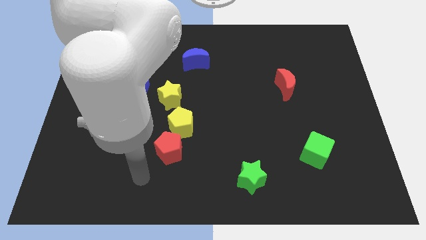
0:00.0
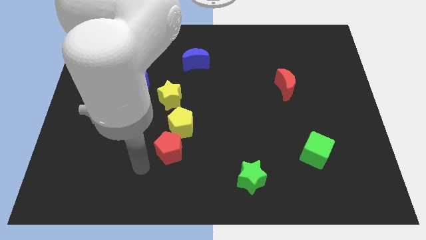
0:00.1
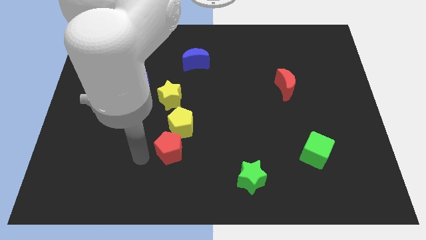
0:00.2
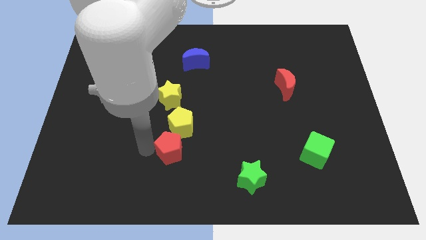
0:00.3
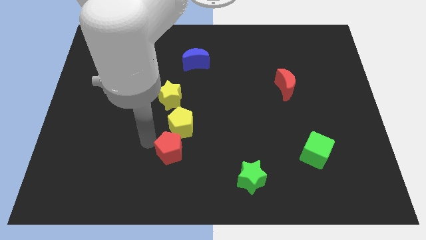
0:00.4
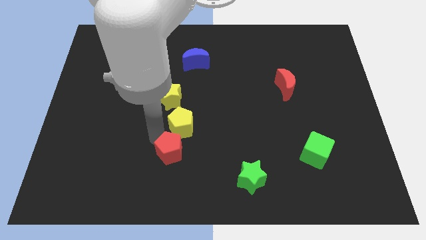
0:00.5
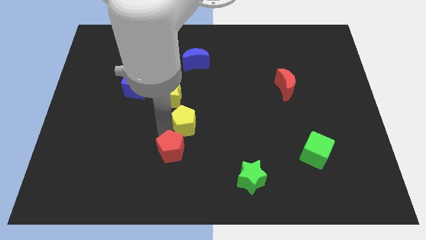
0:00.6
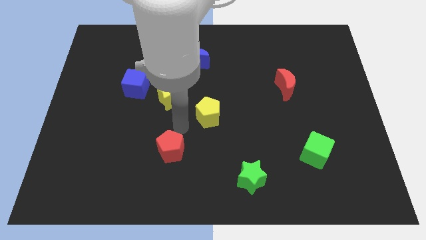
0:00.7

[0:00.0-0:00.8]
separate the red pentagon from the yellow pentagon

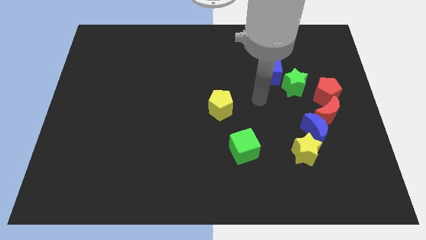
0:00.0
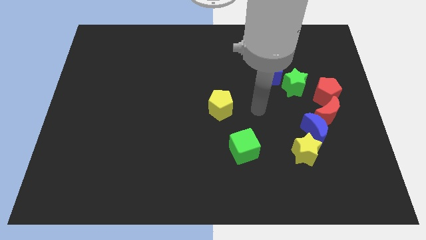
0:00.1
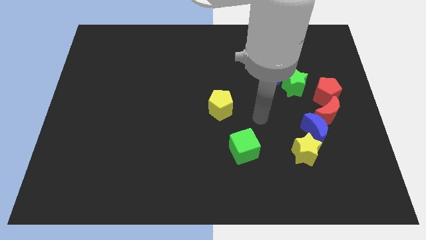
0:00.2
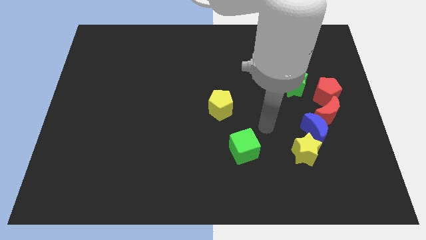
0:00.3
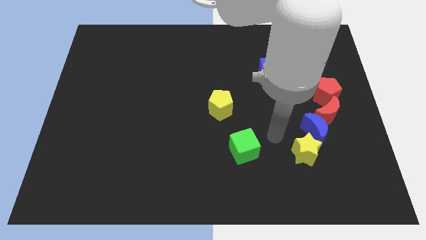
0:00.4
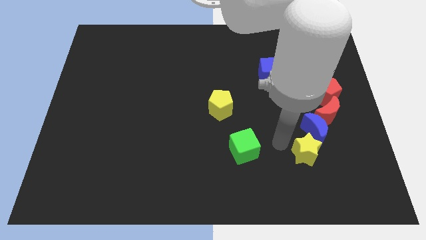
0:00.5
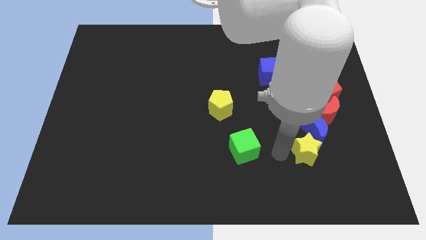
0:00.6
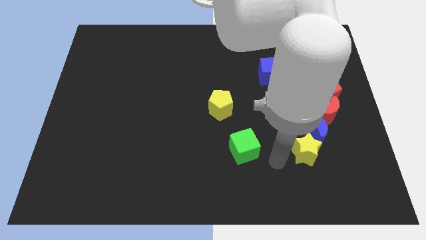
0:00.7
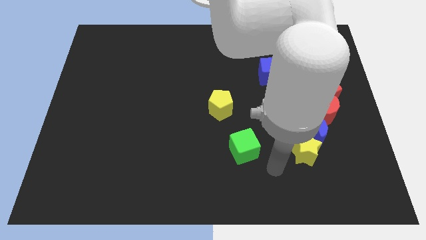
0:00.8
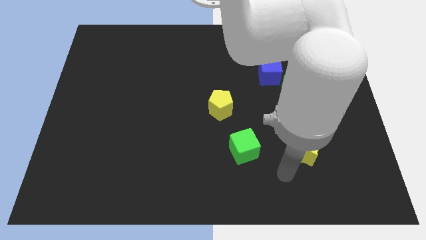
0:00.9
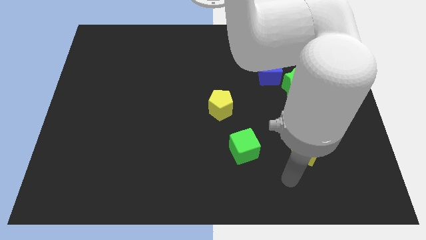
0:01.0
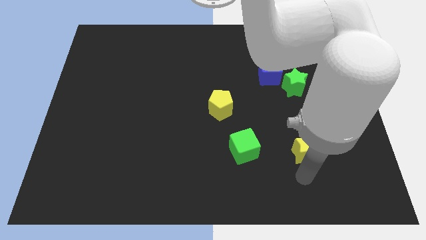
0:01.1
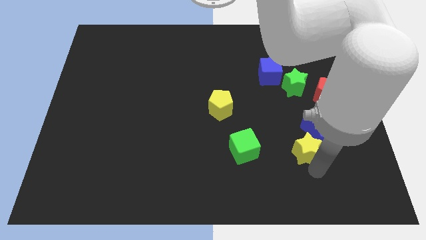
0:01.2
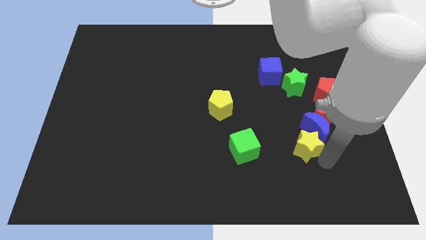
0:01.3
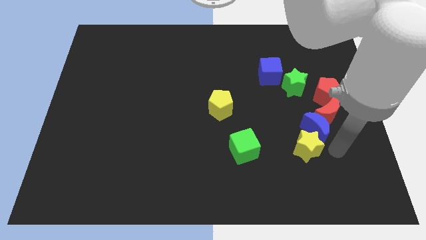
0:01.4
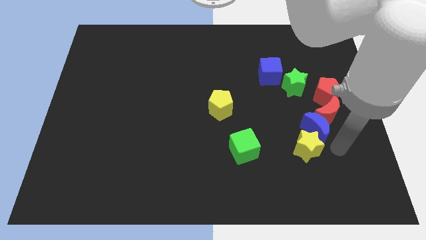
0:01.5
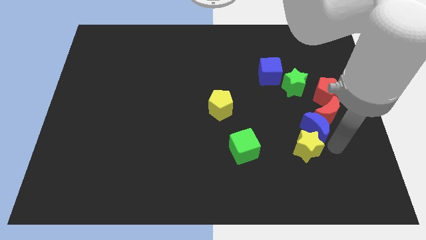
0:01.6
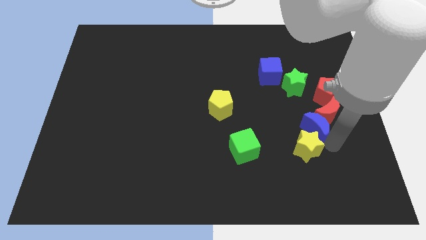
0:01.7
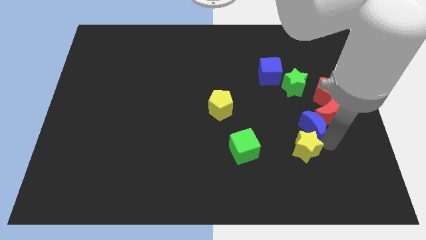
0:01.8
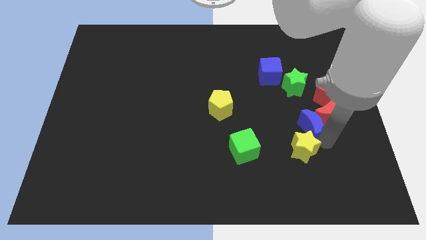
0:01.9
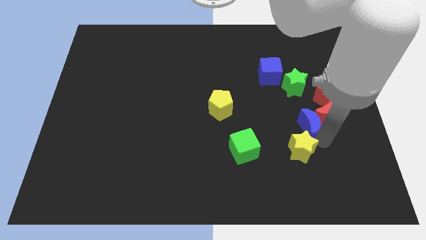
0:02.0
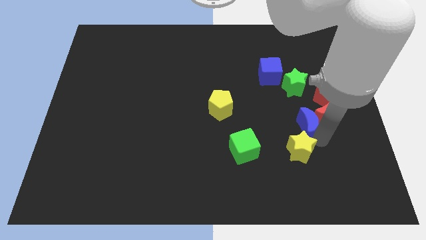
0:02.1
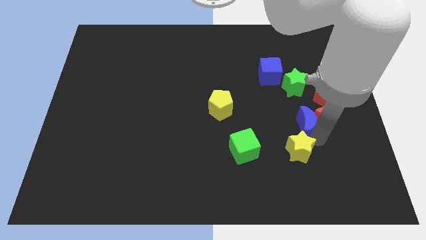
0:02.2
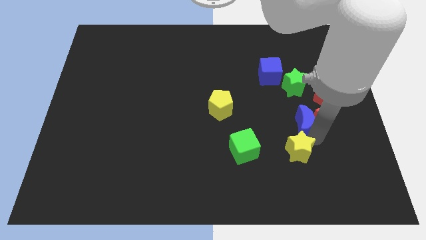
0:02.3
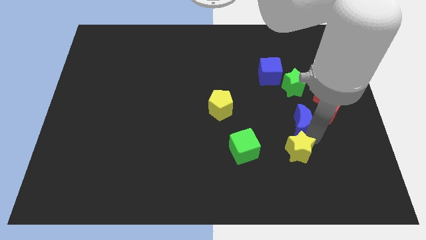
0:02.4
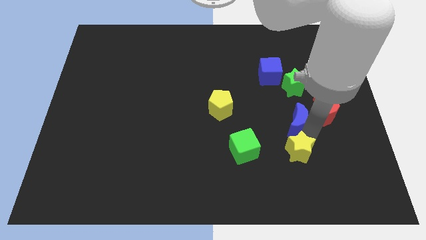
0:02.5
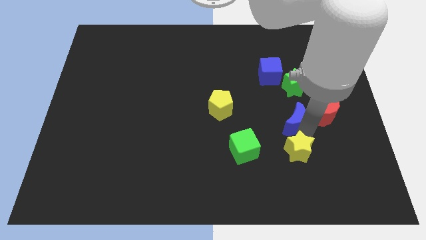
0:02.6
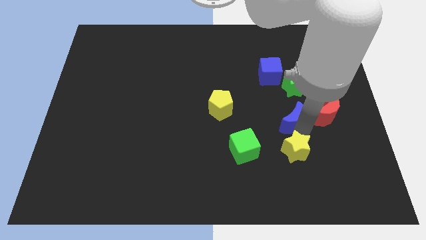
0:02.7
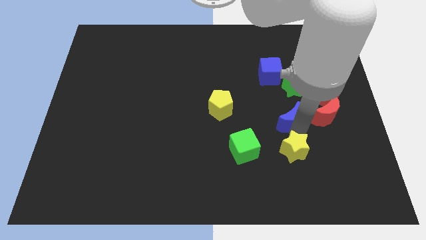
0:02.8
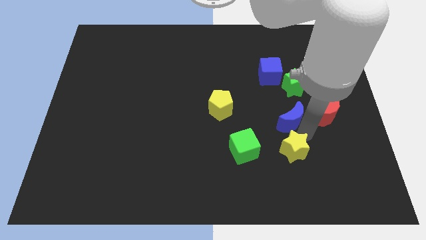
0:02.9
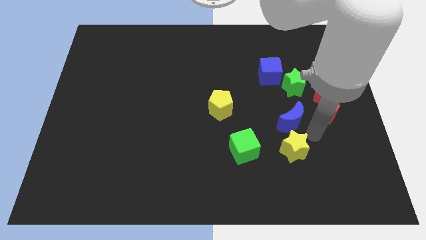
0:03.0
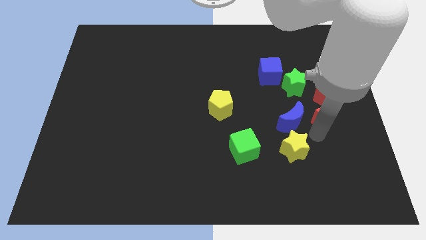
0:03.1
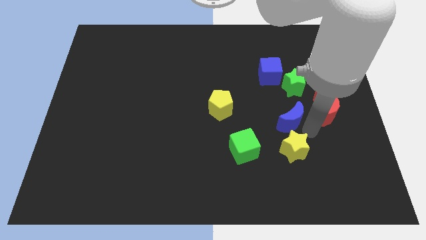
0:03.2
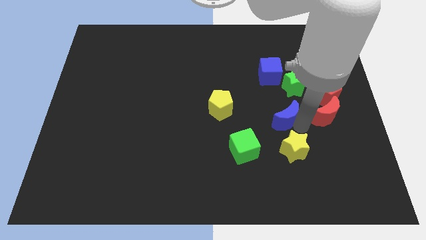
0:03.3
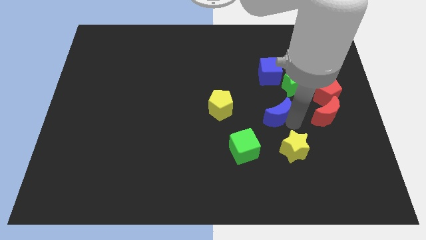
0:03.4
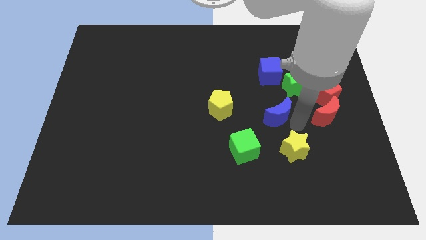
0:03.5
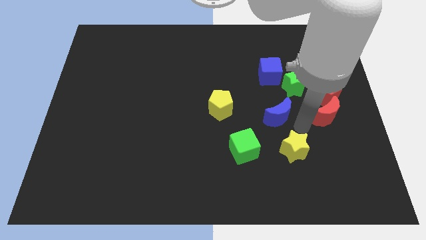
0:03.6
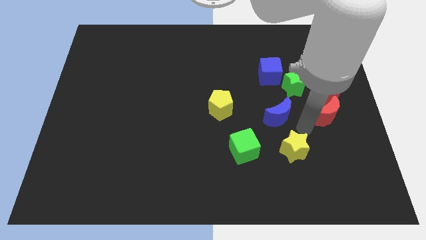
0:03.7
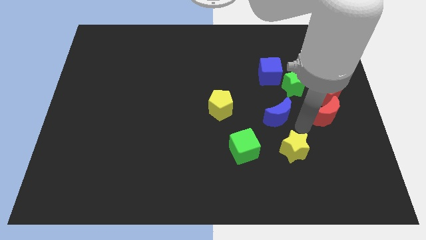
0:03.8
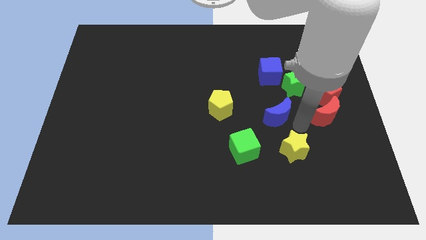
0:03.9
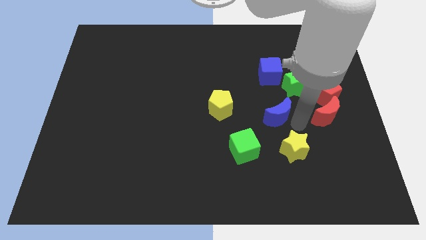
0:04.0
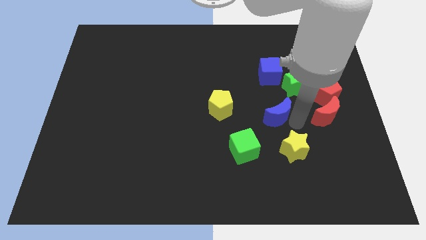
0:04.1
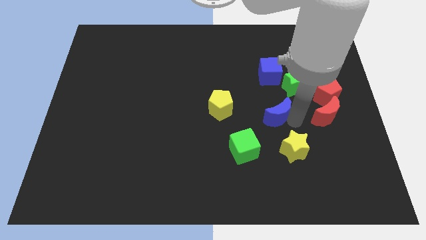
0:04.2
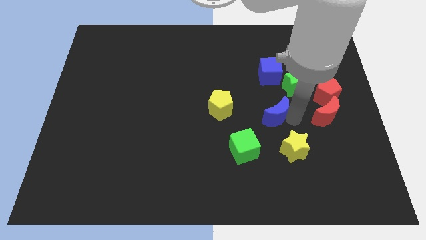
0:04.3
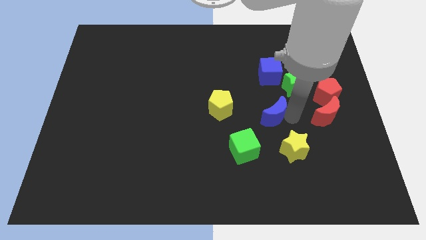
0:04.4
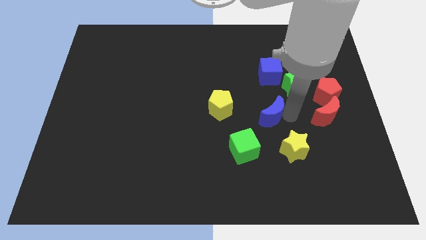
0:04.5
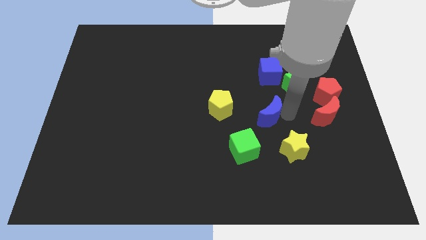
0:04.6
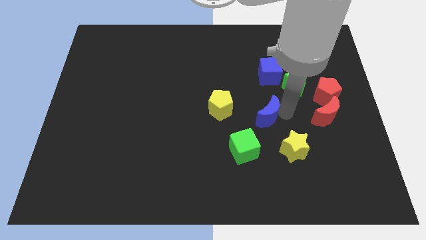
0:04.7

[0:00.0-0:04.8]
separate the blue moon from the red moon and yellow star

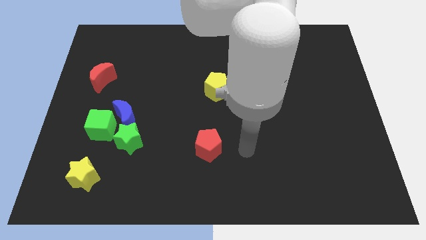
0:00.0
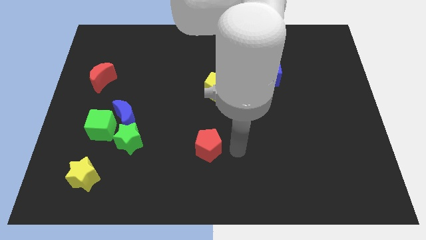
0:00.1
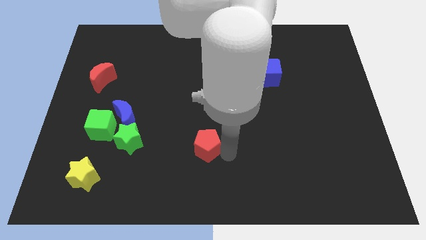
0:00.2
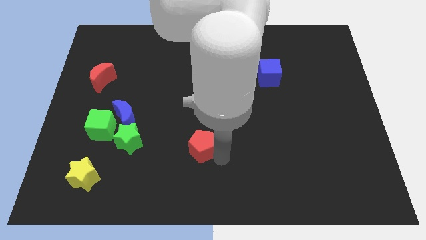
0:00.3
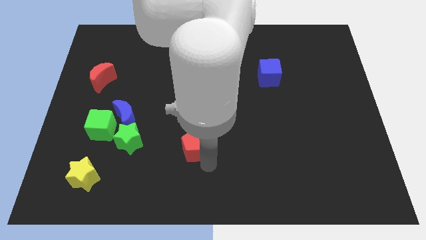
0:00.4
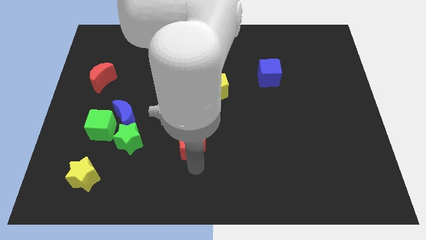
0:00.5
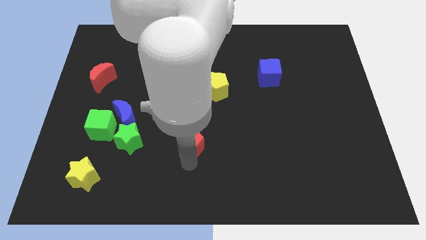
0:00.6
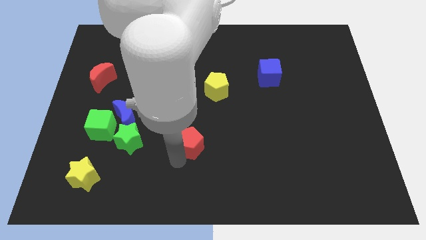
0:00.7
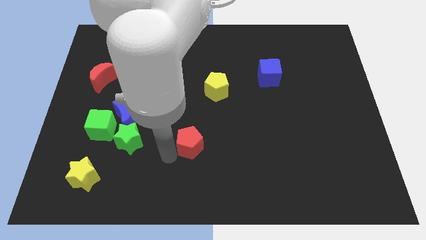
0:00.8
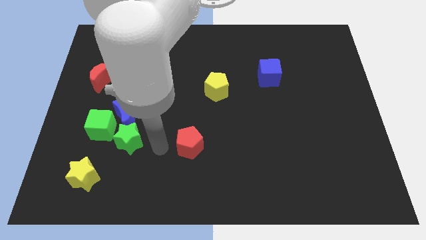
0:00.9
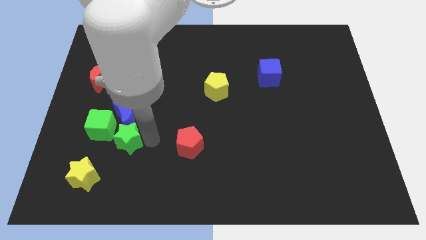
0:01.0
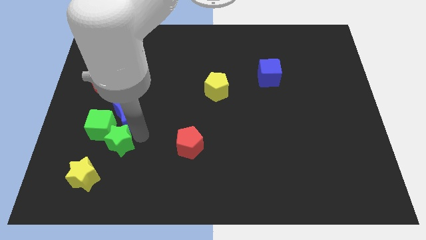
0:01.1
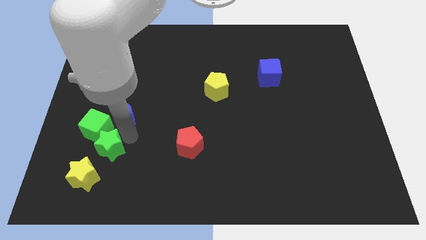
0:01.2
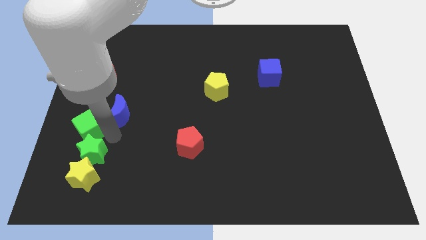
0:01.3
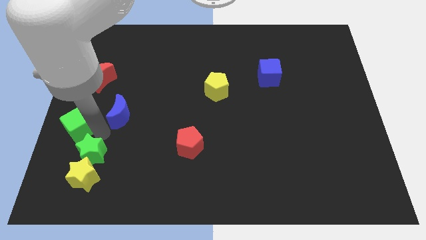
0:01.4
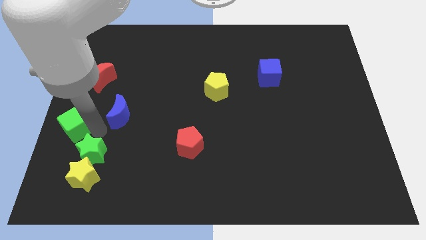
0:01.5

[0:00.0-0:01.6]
move the blue moon away from the green cube and green star

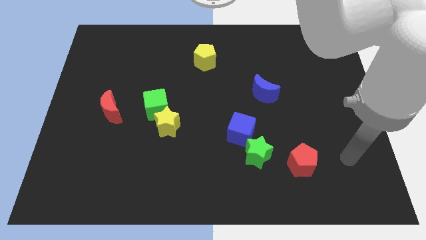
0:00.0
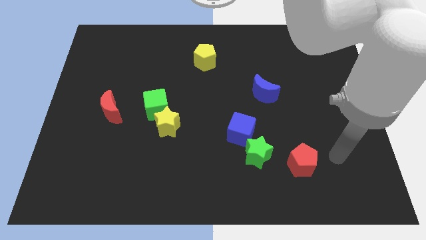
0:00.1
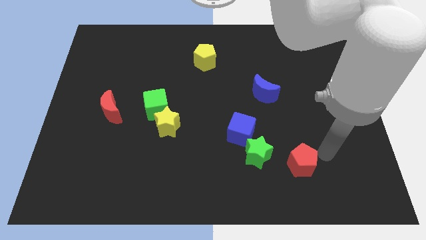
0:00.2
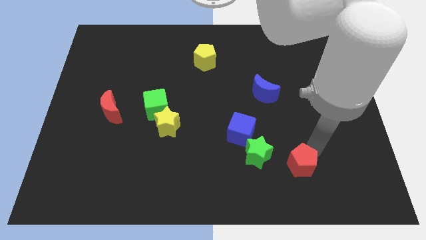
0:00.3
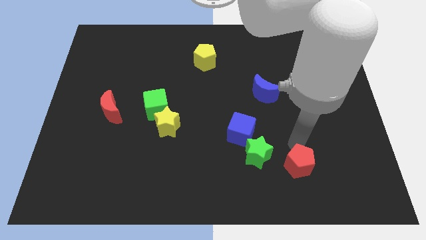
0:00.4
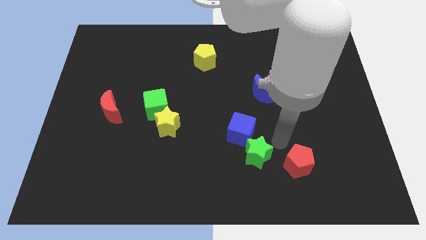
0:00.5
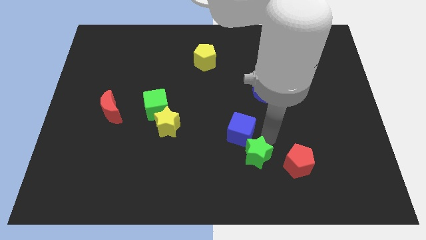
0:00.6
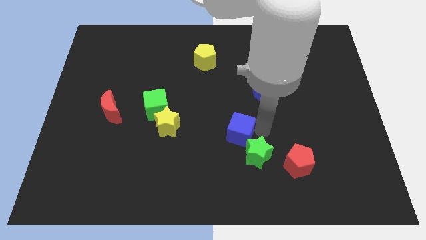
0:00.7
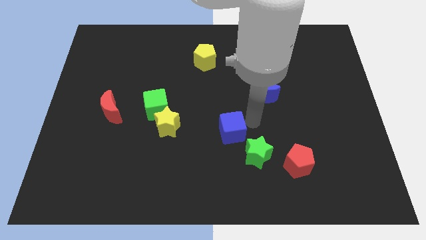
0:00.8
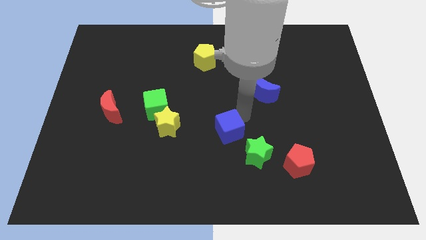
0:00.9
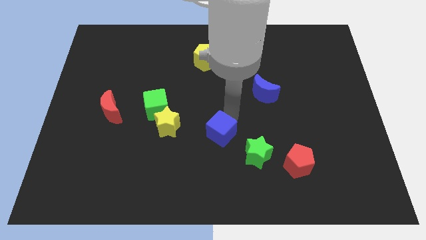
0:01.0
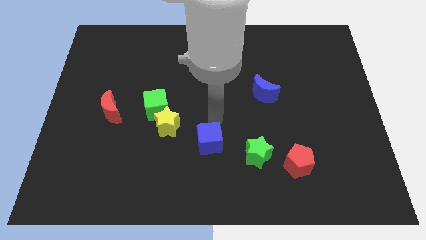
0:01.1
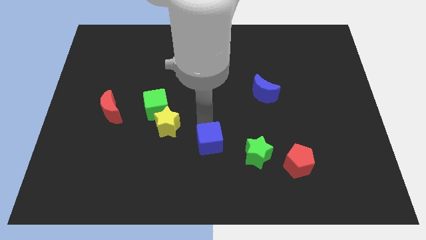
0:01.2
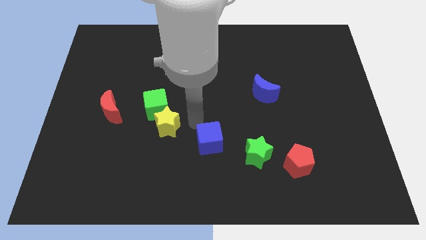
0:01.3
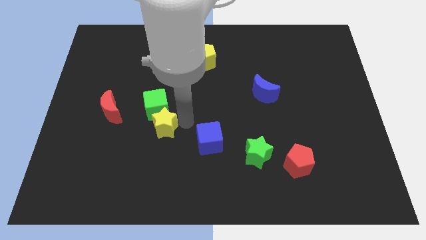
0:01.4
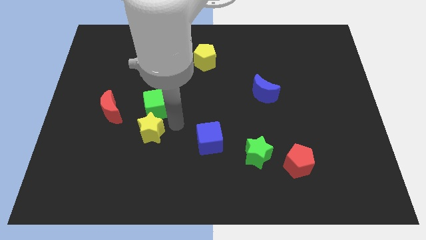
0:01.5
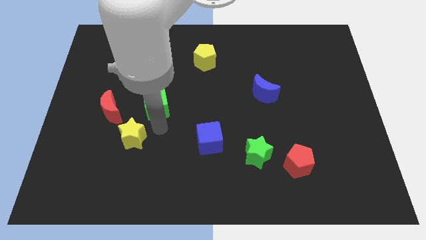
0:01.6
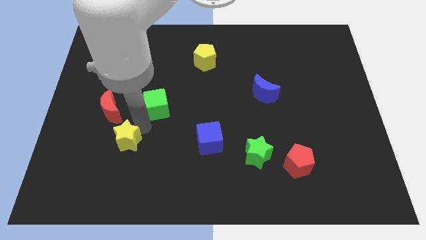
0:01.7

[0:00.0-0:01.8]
move the green cube away from the yellow star

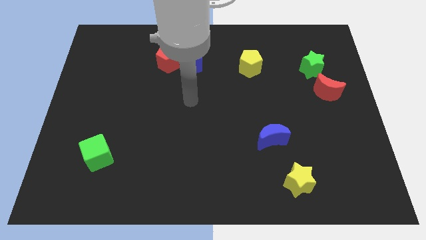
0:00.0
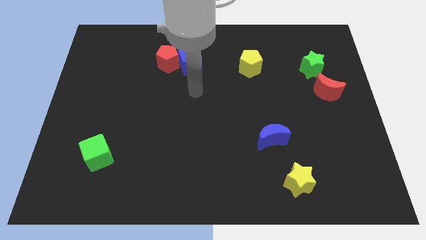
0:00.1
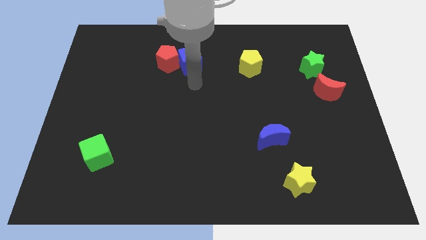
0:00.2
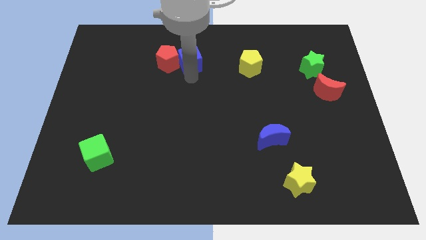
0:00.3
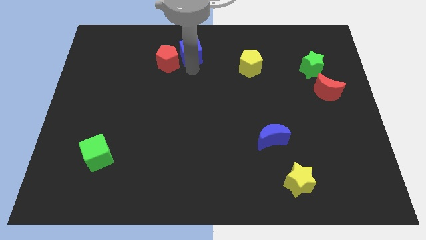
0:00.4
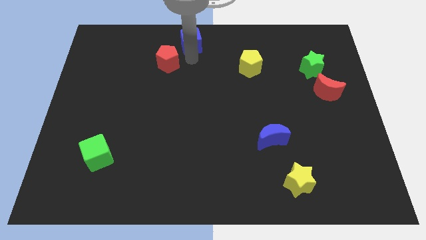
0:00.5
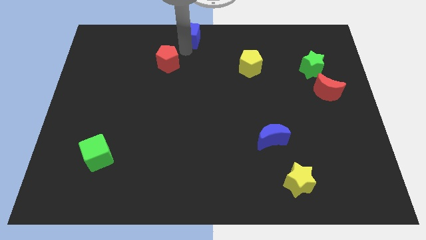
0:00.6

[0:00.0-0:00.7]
pull the red pentagon apart from the blue cube
